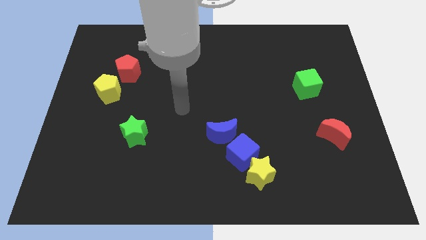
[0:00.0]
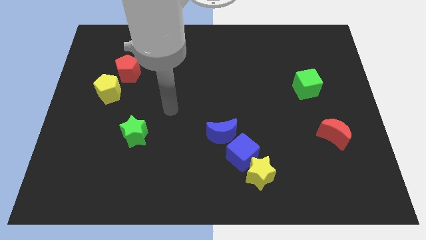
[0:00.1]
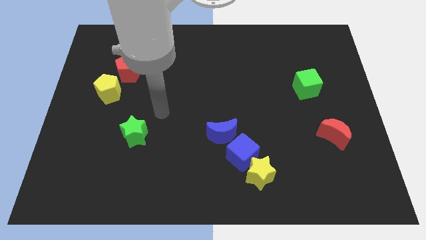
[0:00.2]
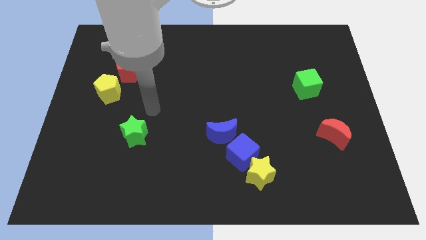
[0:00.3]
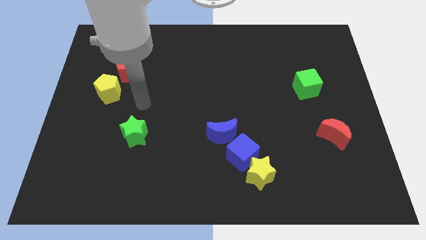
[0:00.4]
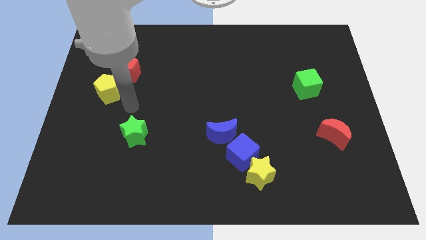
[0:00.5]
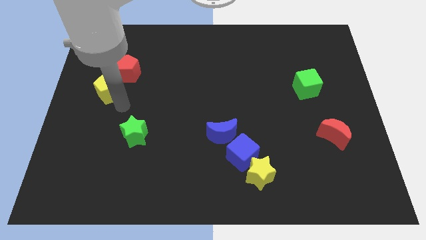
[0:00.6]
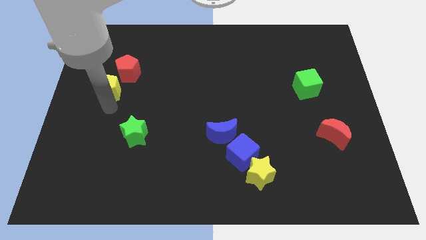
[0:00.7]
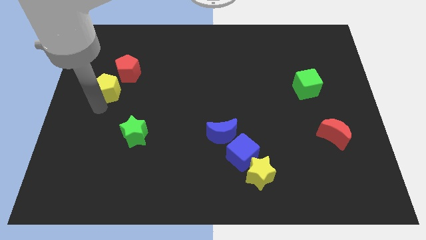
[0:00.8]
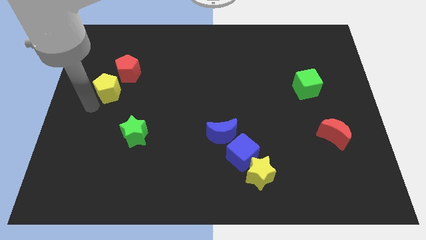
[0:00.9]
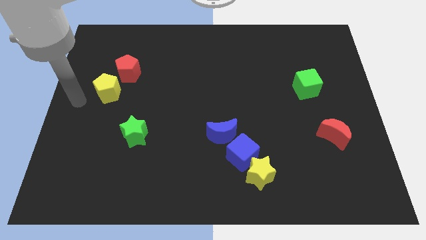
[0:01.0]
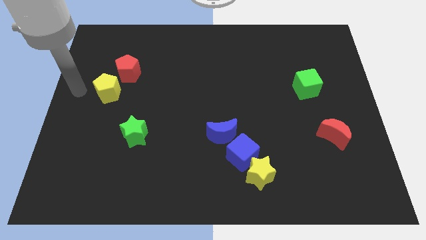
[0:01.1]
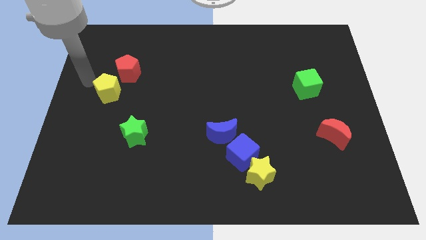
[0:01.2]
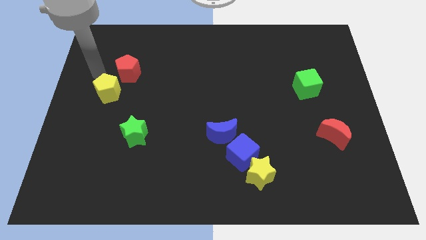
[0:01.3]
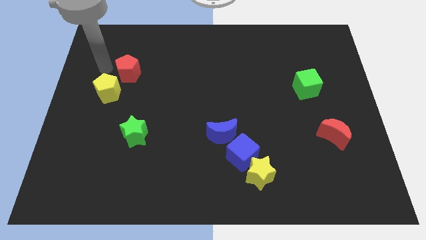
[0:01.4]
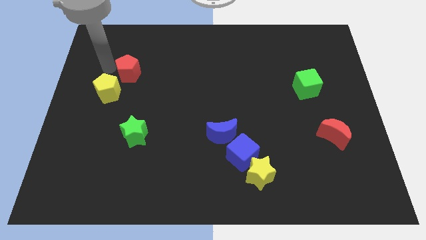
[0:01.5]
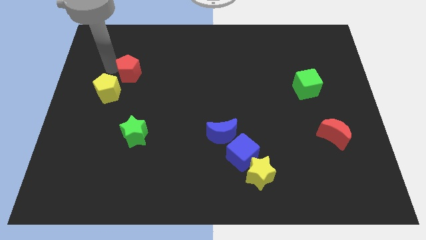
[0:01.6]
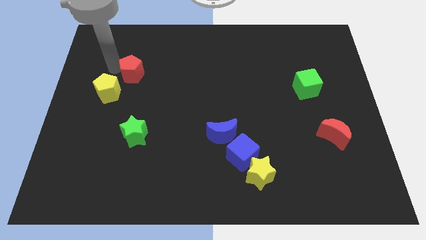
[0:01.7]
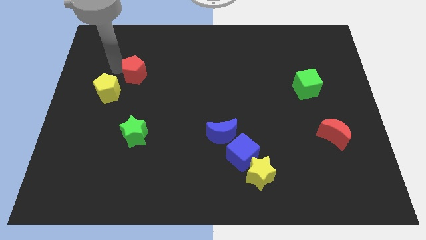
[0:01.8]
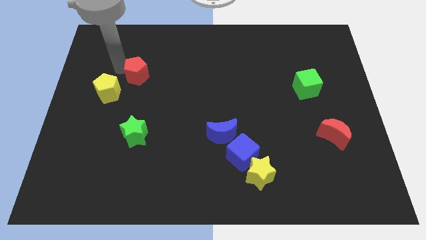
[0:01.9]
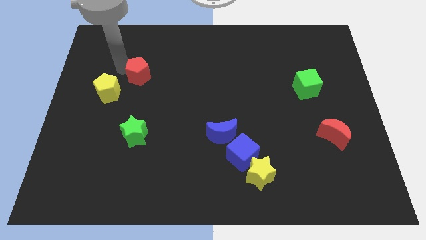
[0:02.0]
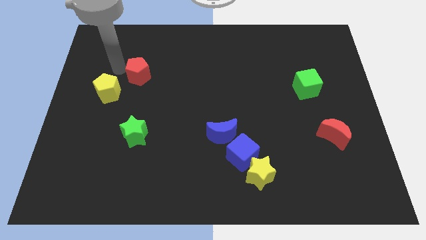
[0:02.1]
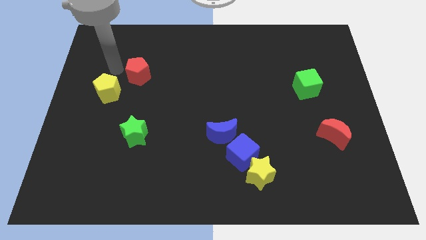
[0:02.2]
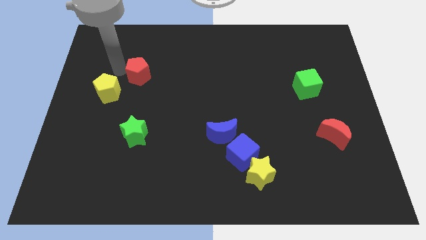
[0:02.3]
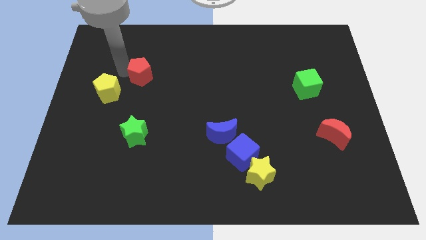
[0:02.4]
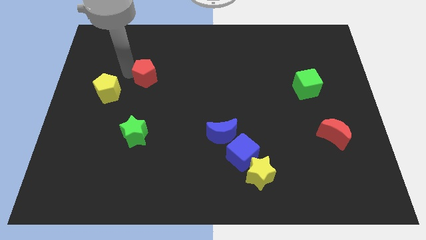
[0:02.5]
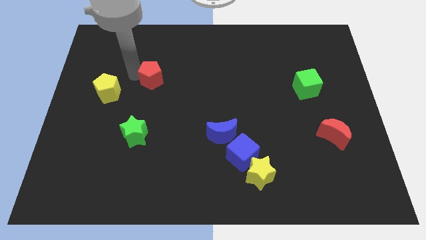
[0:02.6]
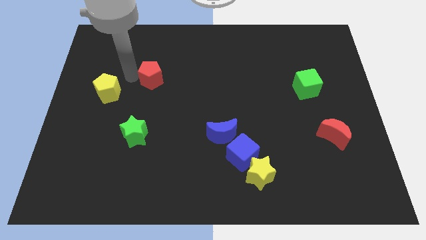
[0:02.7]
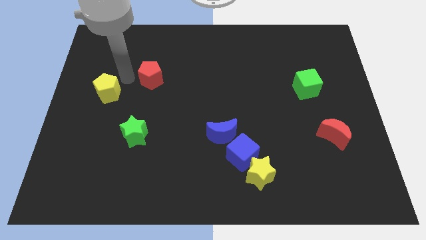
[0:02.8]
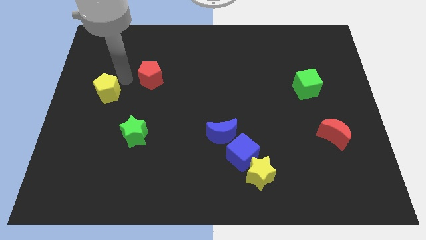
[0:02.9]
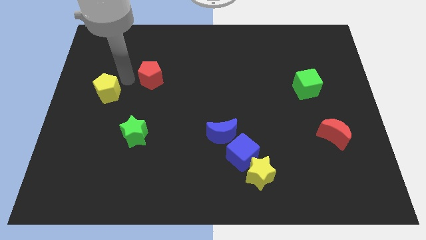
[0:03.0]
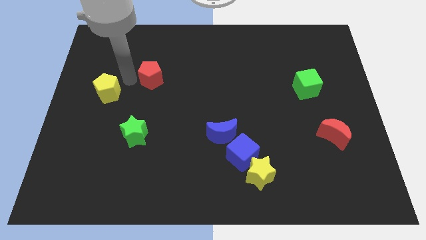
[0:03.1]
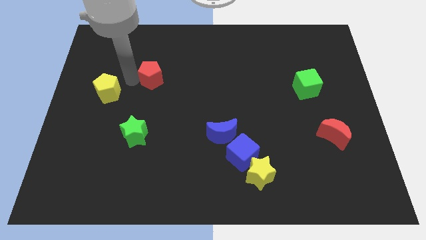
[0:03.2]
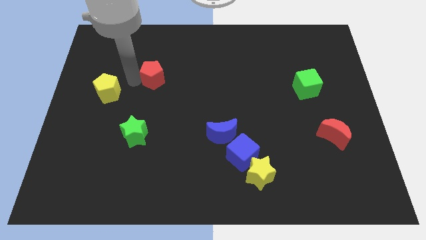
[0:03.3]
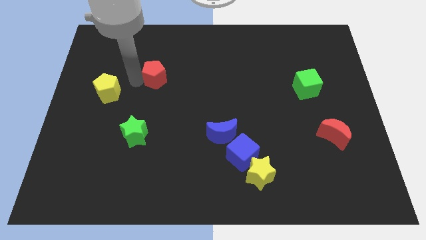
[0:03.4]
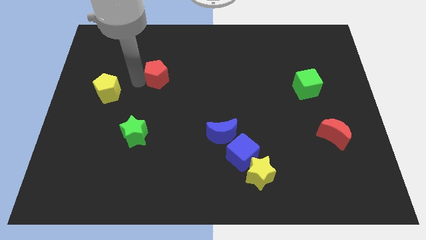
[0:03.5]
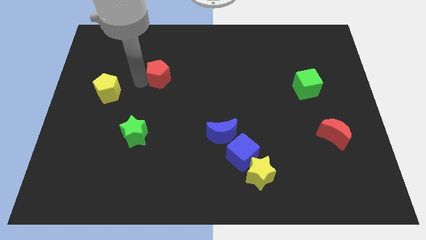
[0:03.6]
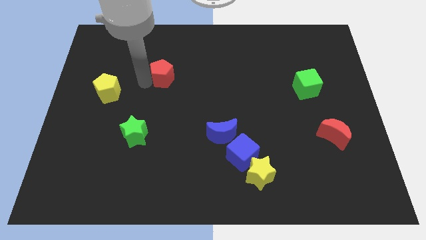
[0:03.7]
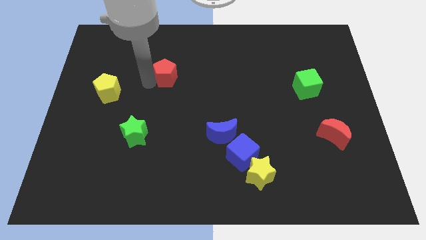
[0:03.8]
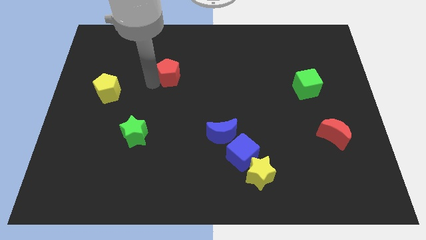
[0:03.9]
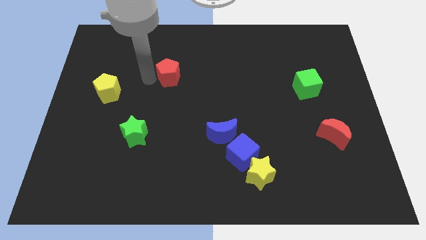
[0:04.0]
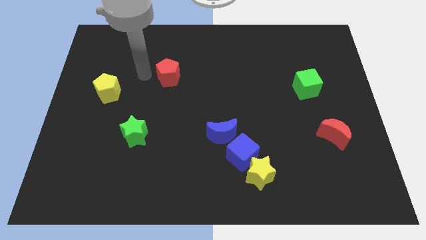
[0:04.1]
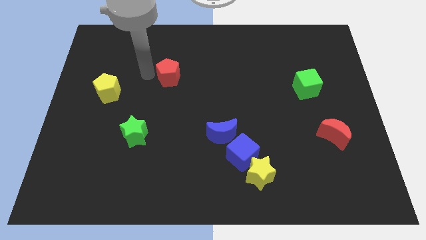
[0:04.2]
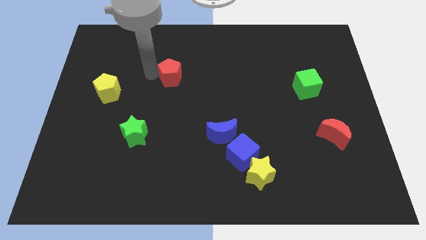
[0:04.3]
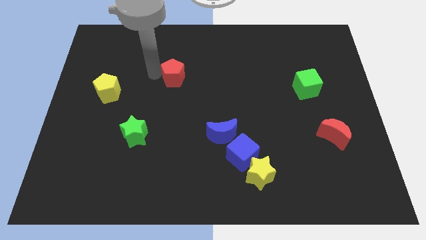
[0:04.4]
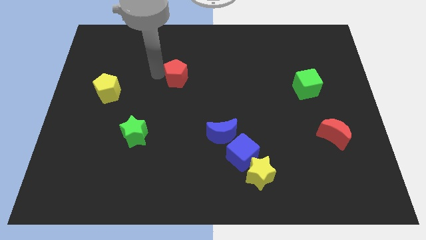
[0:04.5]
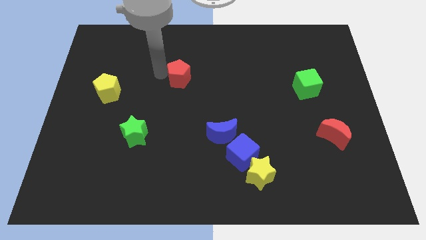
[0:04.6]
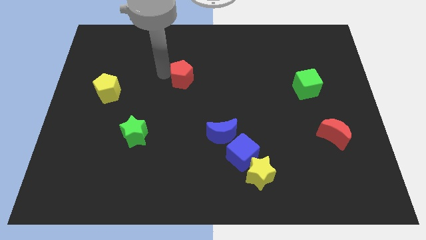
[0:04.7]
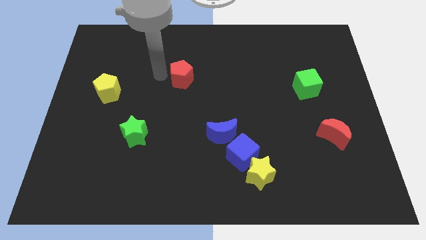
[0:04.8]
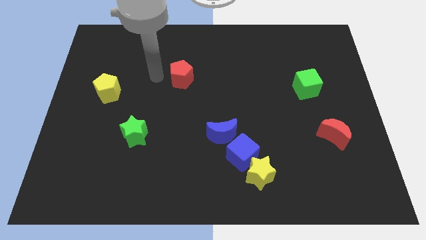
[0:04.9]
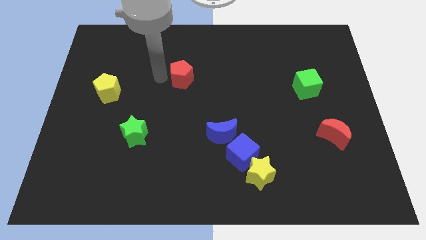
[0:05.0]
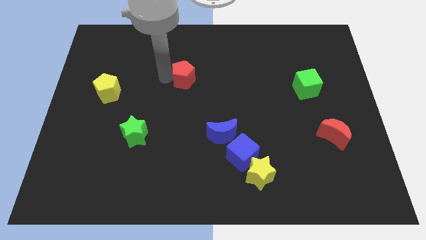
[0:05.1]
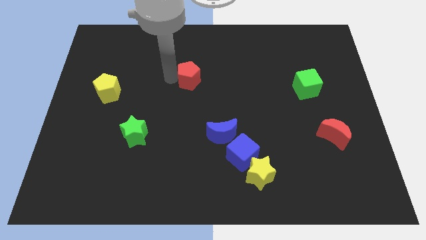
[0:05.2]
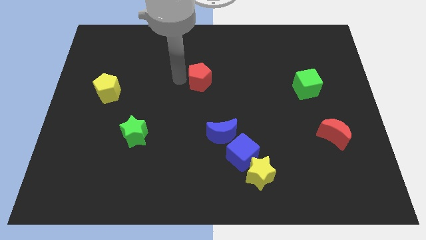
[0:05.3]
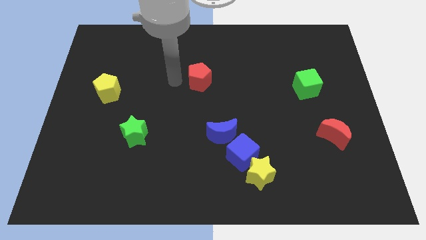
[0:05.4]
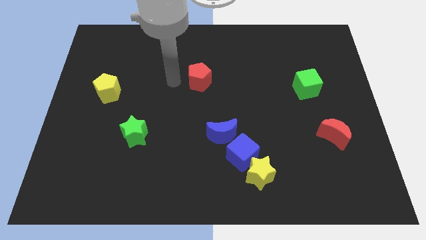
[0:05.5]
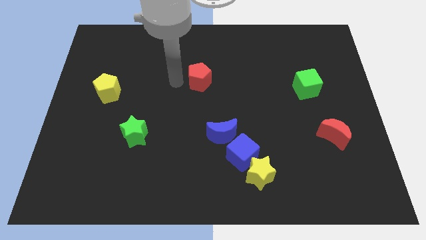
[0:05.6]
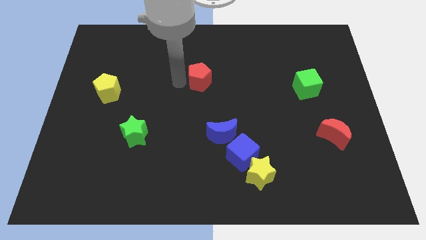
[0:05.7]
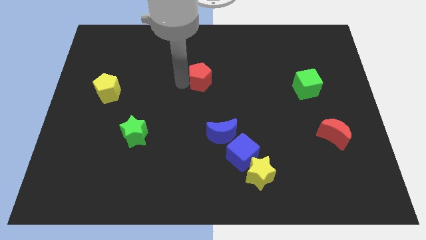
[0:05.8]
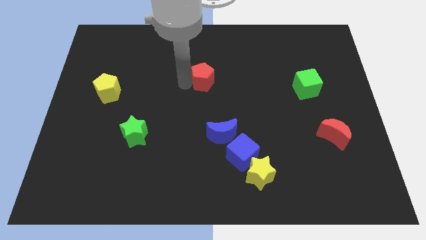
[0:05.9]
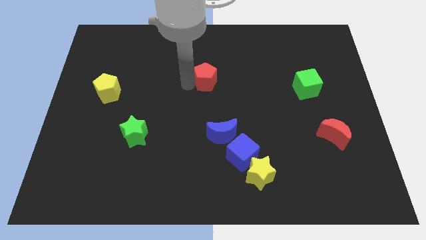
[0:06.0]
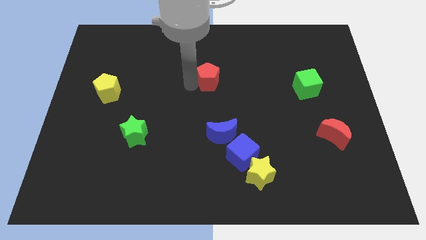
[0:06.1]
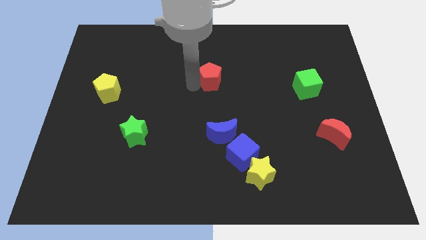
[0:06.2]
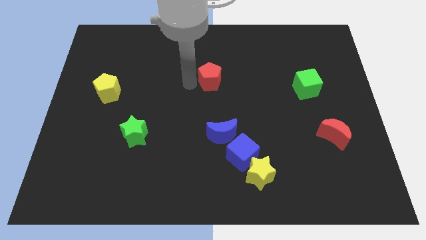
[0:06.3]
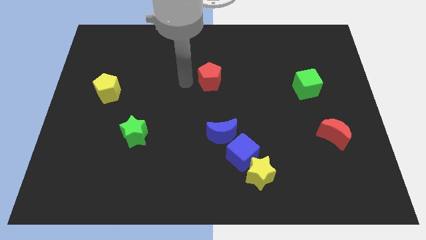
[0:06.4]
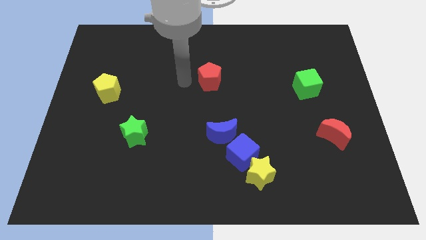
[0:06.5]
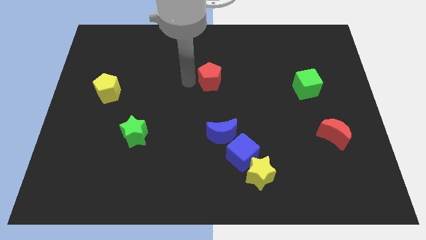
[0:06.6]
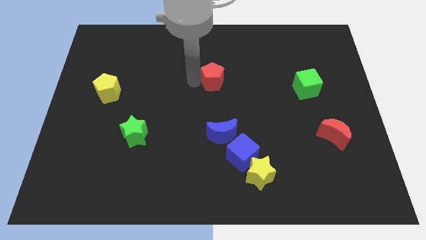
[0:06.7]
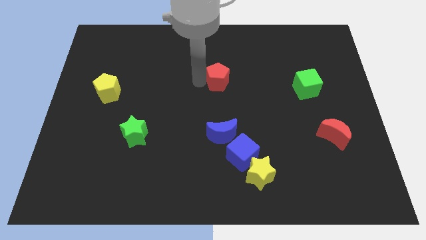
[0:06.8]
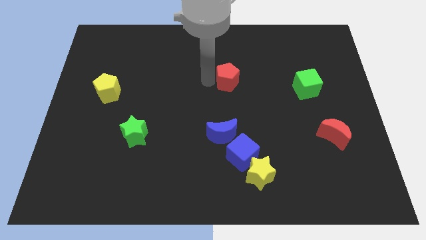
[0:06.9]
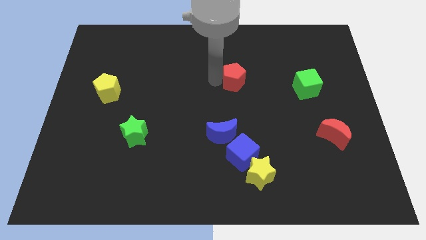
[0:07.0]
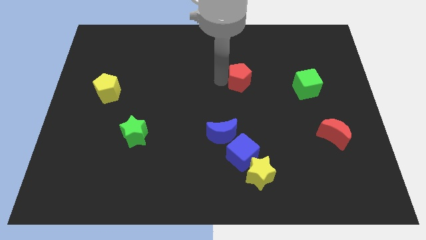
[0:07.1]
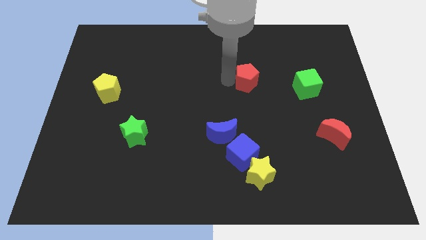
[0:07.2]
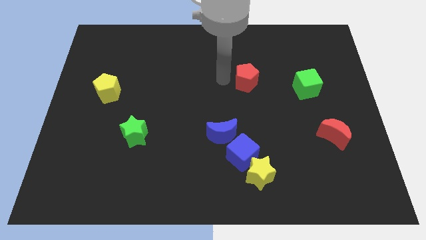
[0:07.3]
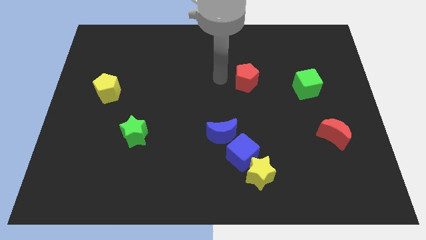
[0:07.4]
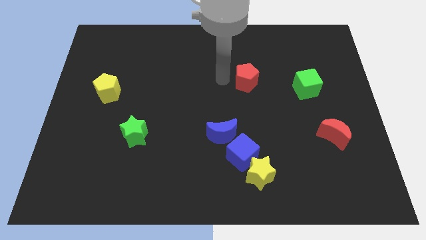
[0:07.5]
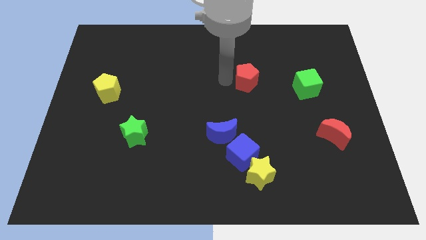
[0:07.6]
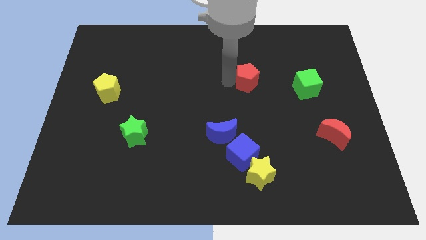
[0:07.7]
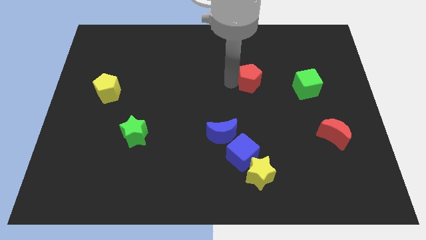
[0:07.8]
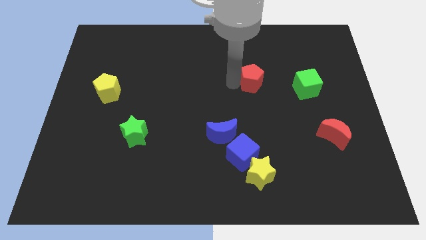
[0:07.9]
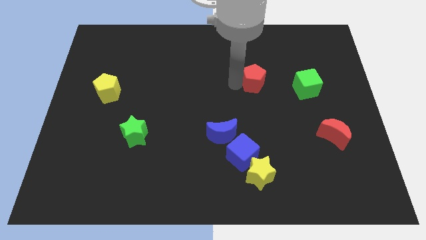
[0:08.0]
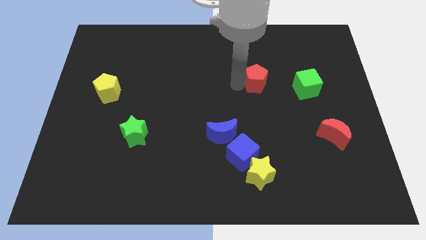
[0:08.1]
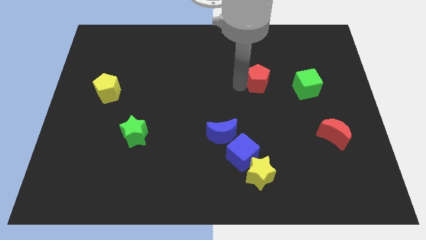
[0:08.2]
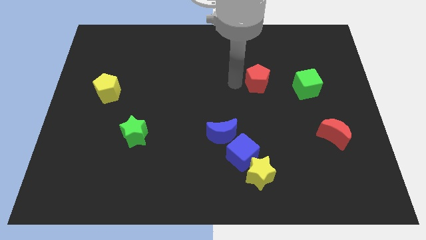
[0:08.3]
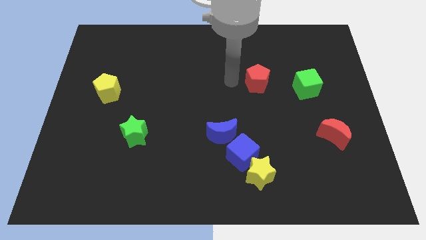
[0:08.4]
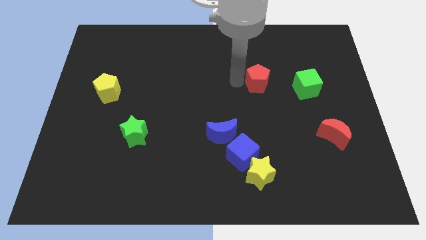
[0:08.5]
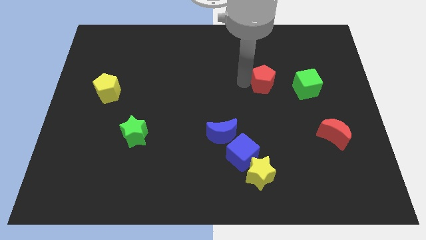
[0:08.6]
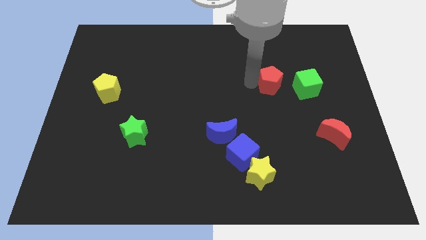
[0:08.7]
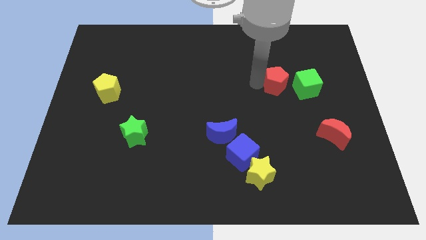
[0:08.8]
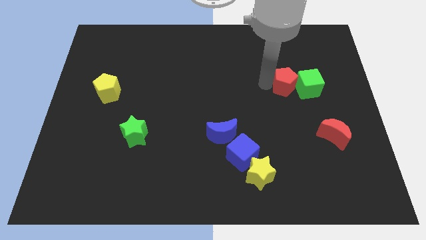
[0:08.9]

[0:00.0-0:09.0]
slide the red pentagon to the green cube
